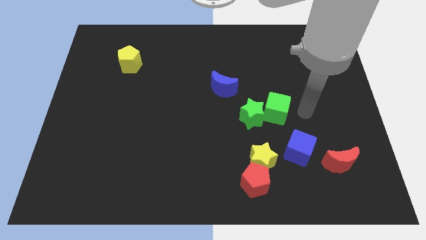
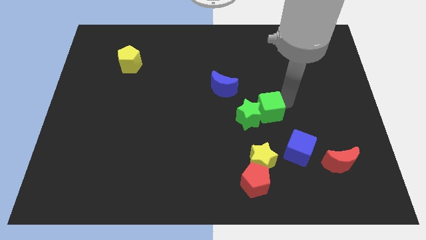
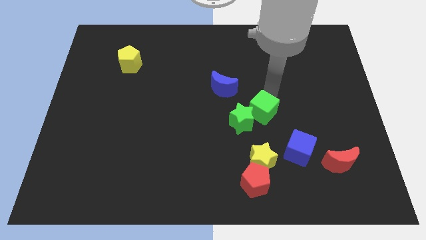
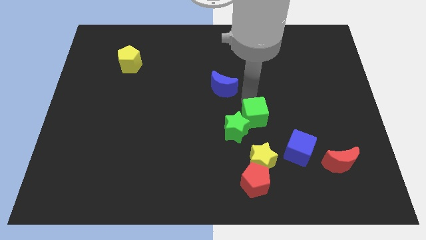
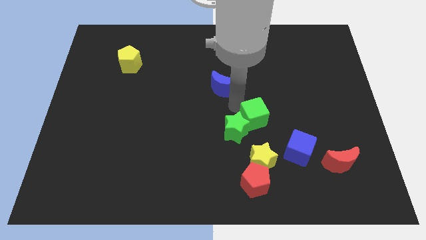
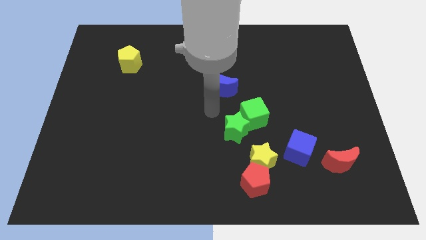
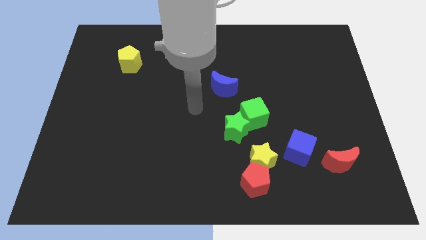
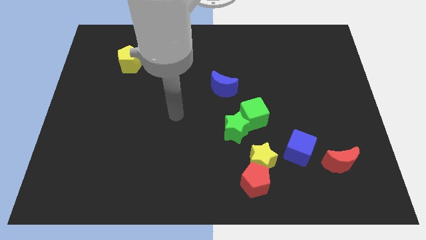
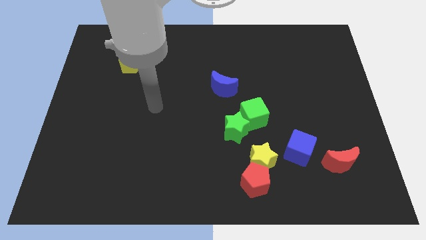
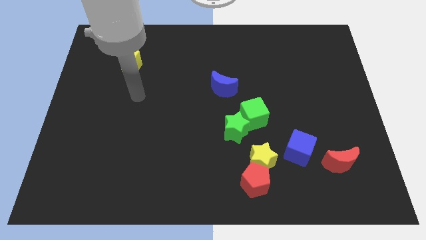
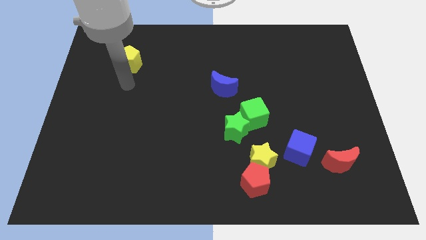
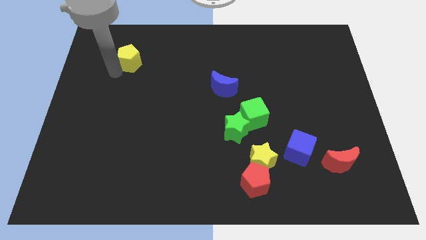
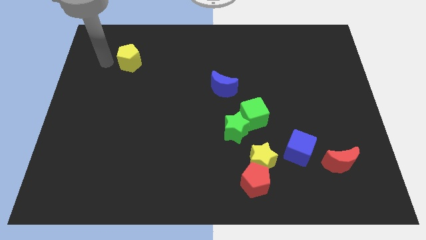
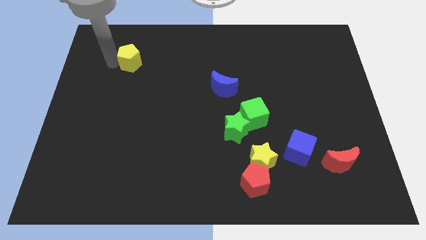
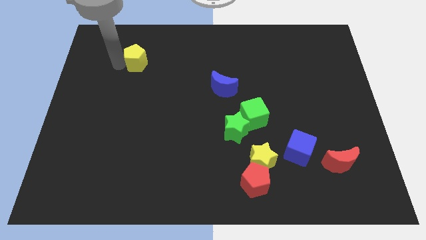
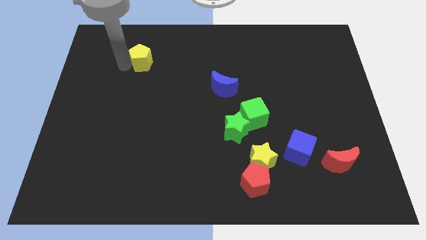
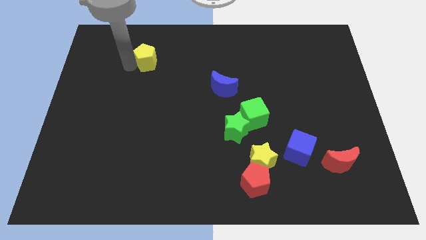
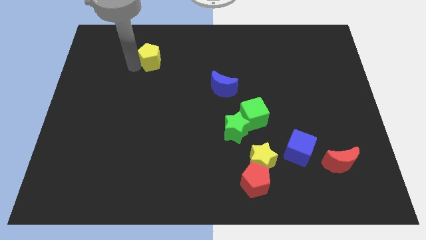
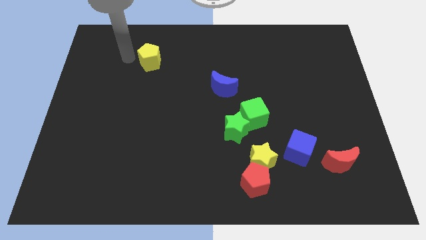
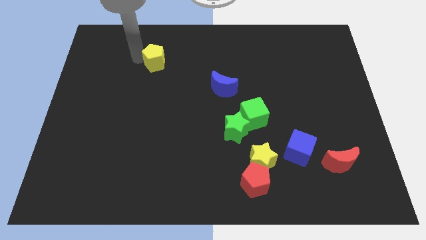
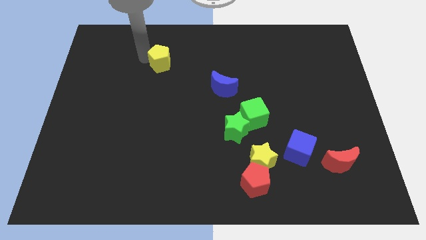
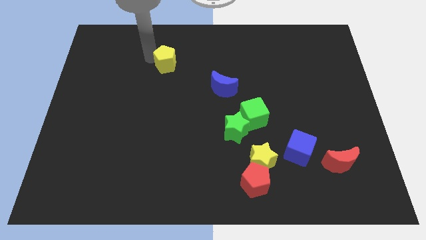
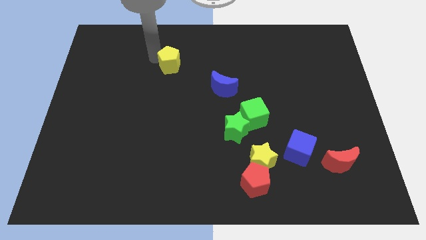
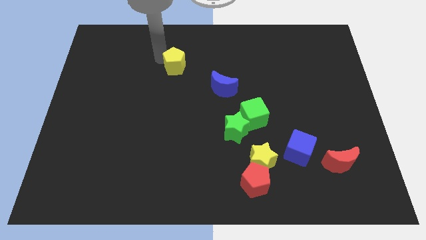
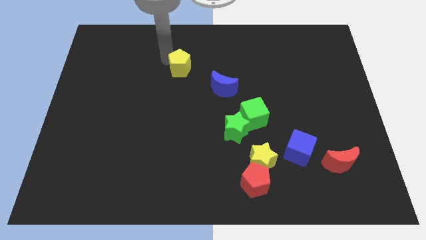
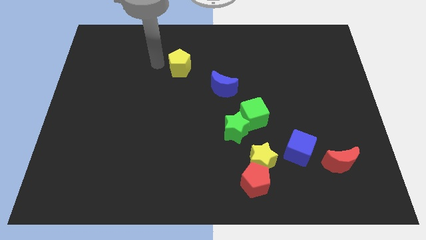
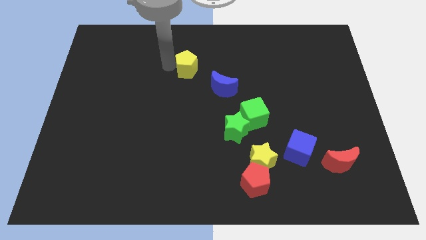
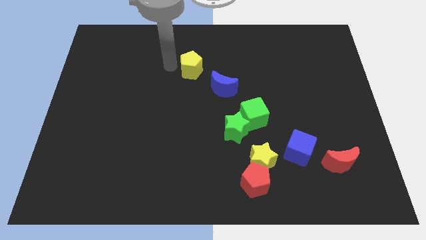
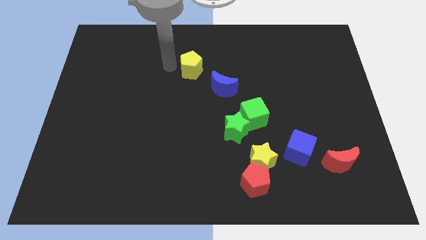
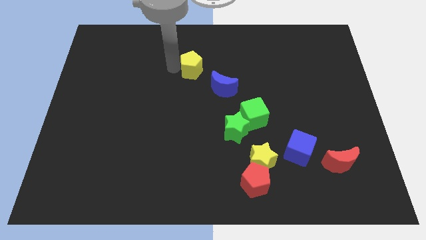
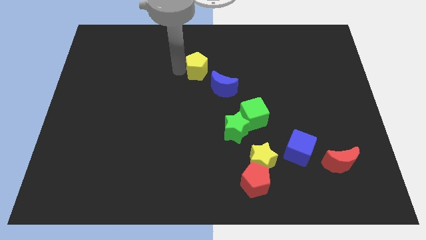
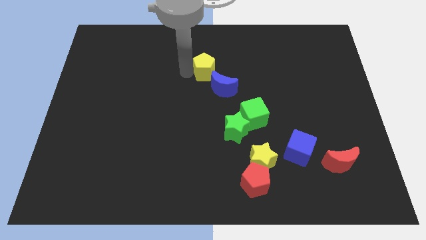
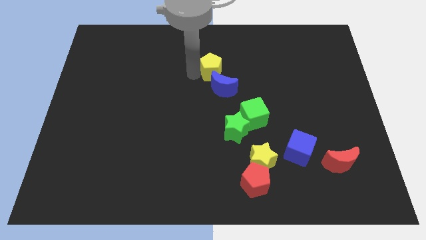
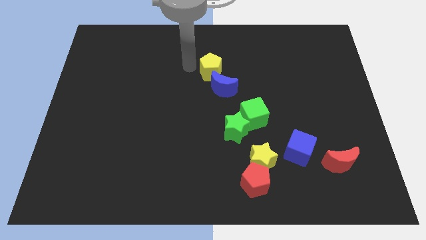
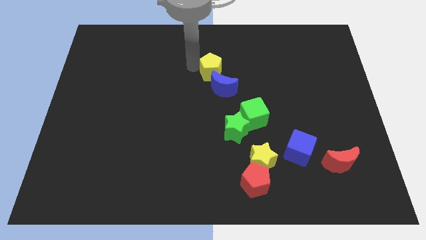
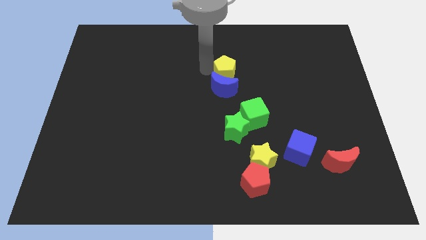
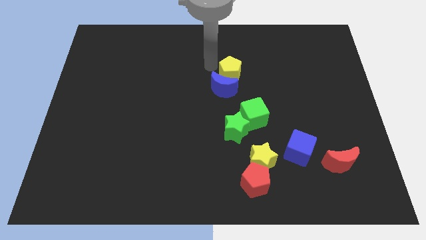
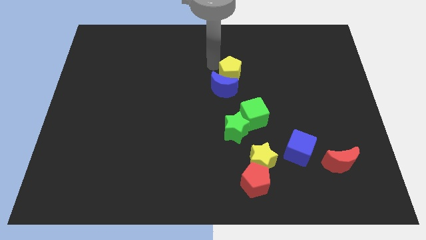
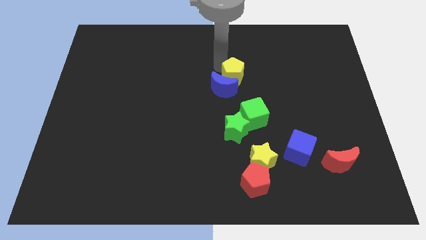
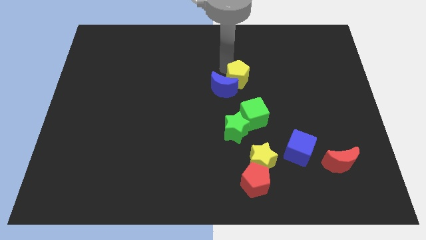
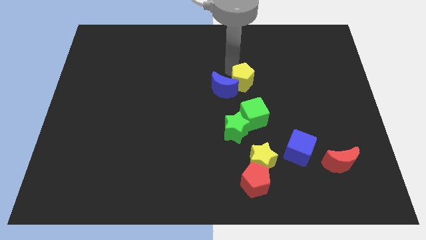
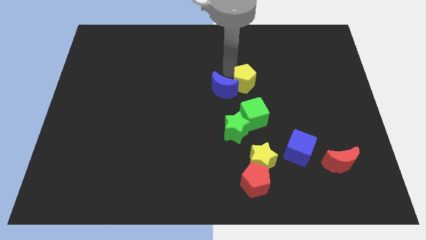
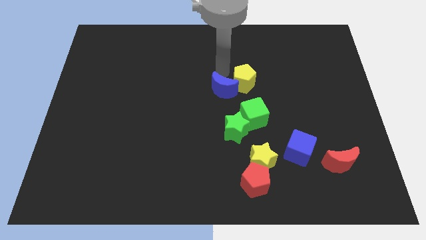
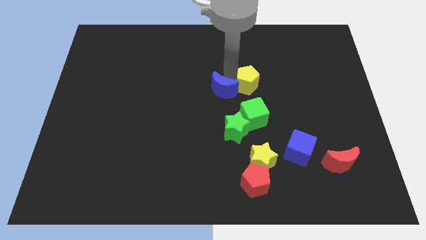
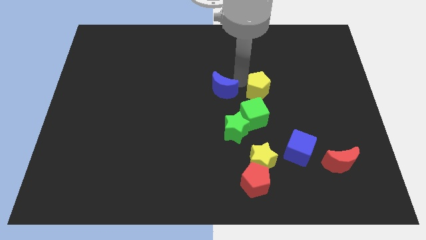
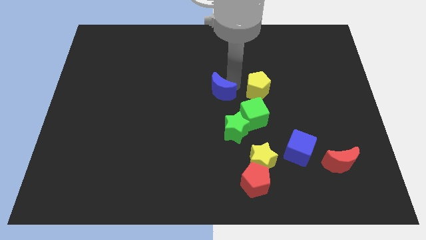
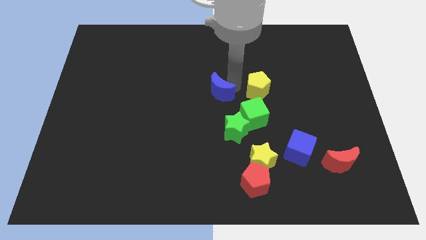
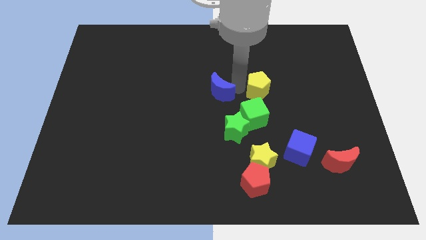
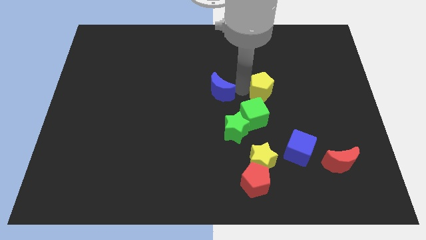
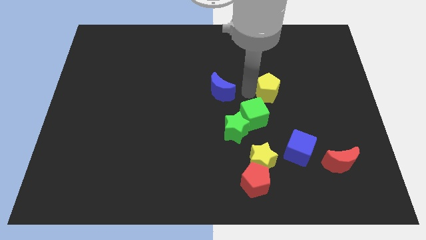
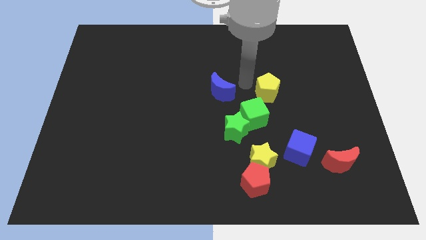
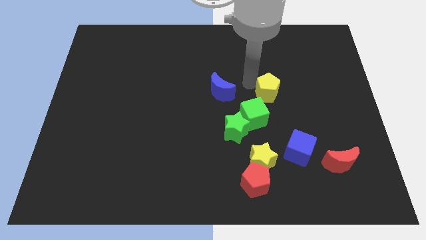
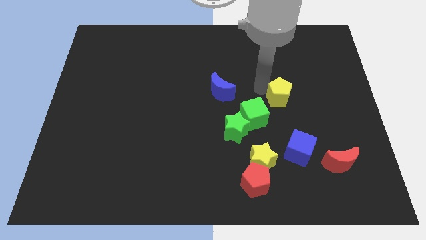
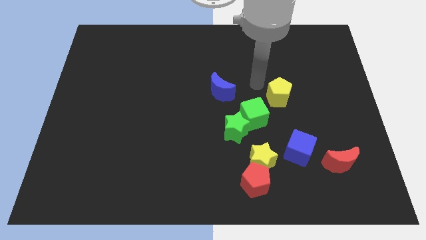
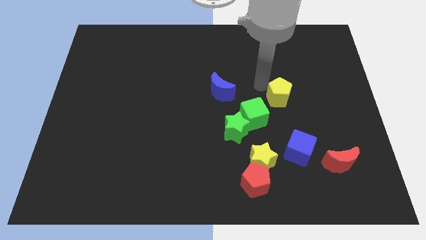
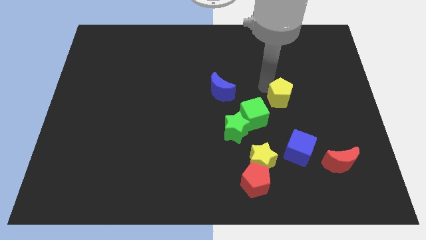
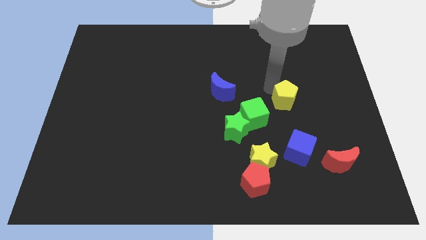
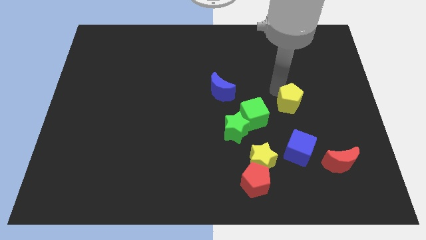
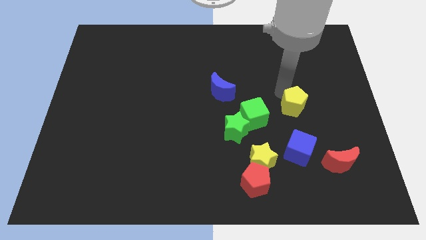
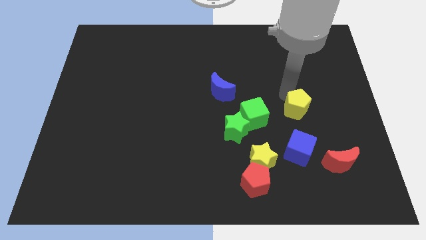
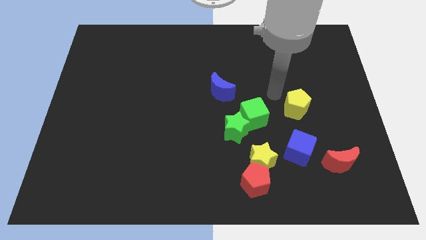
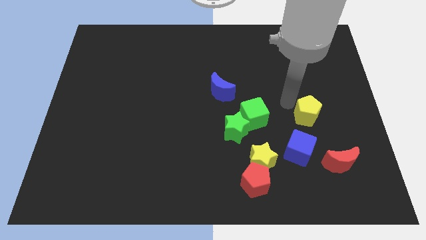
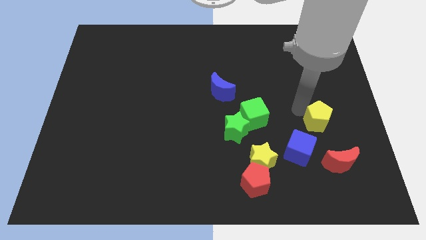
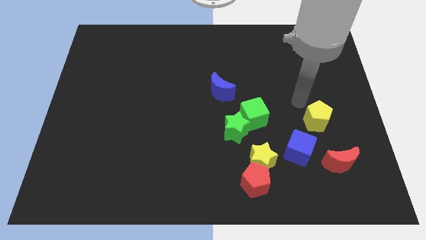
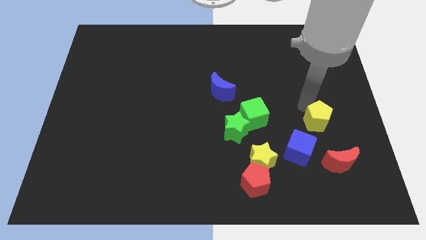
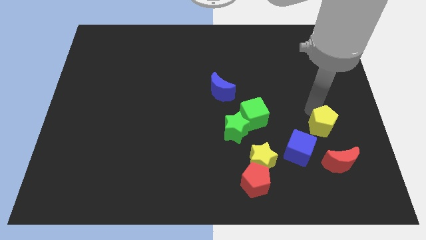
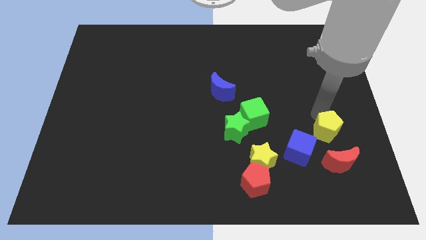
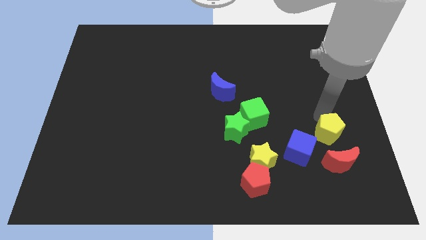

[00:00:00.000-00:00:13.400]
put the yellow pentagon to the right of the blue cube

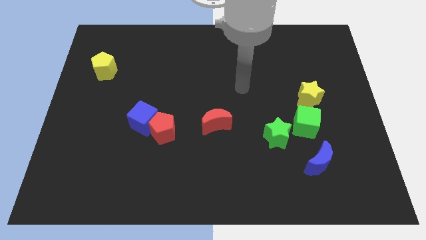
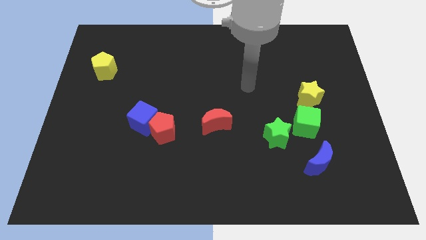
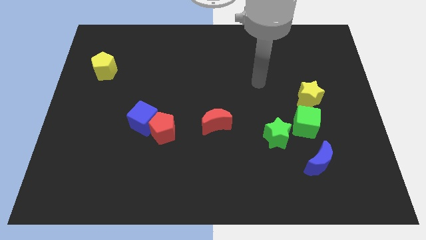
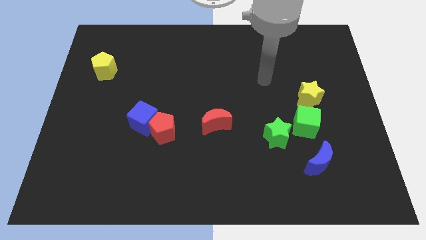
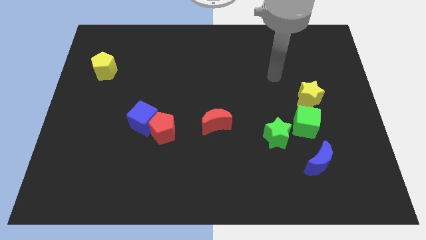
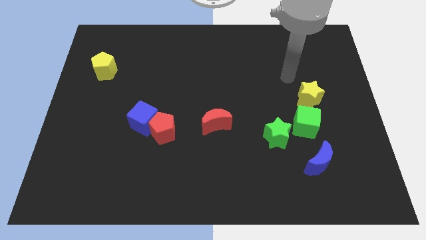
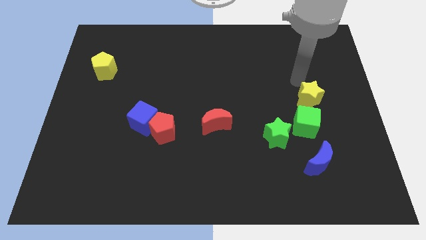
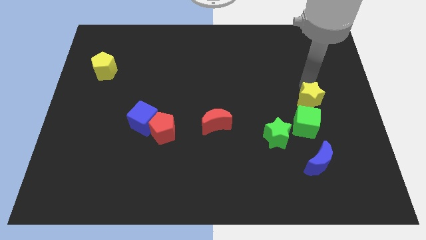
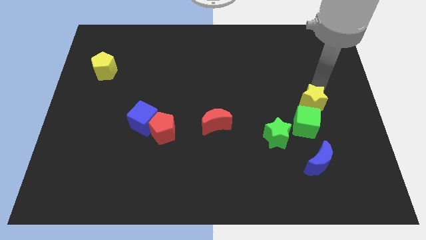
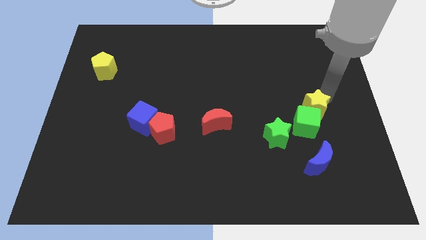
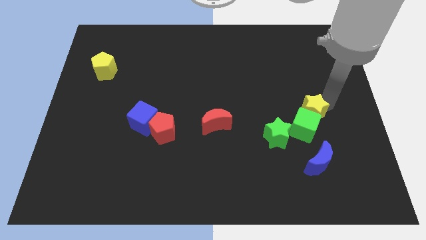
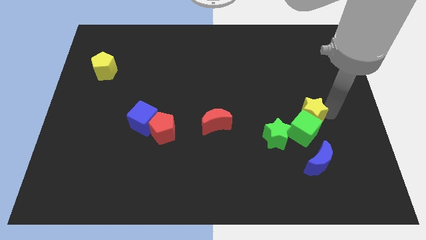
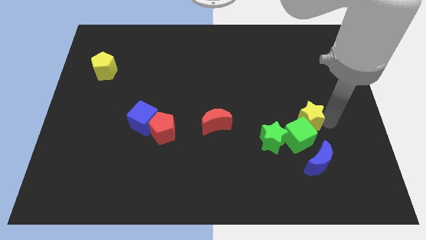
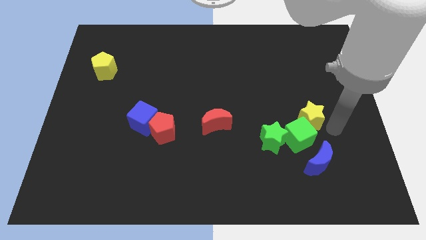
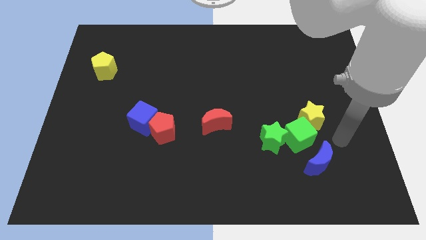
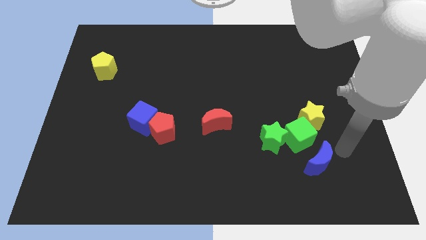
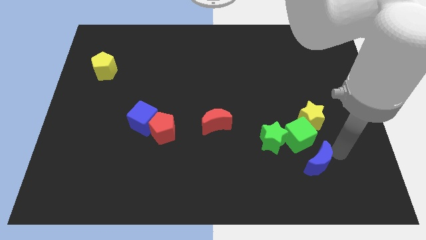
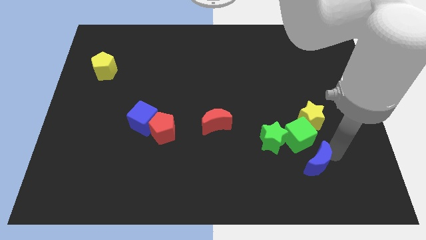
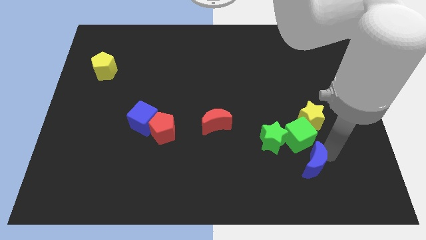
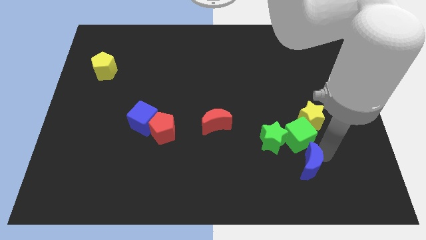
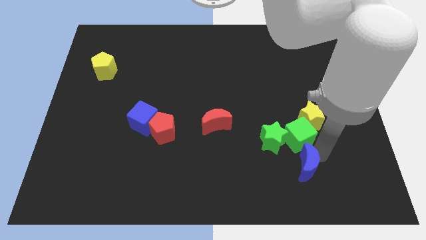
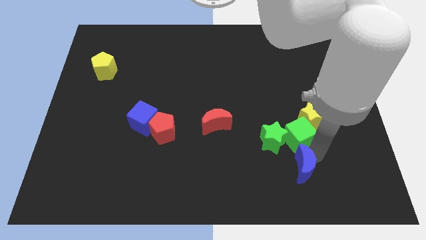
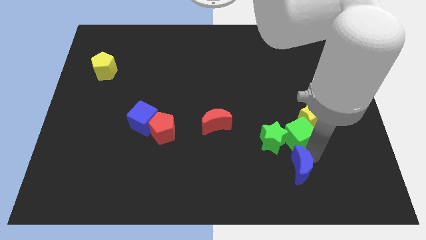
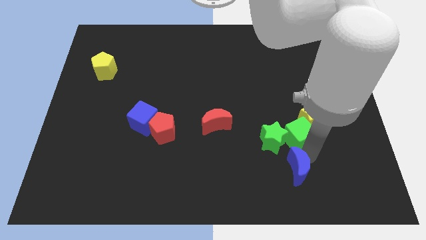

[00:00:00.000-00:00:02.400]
put the blue moon to the bottom side of the green star
